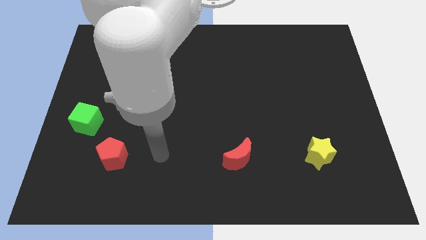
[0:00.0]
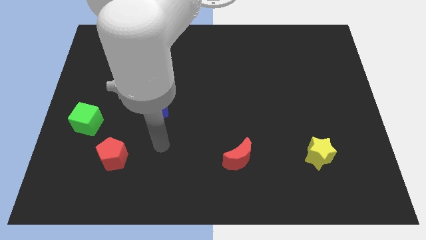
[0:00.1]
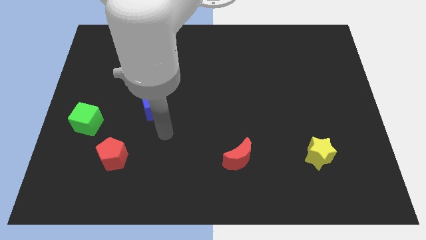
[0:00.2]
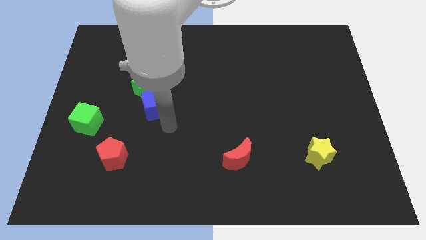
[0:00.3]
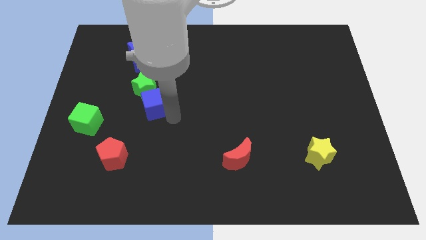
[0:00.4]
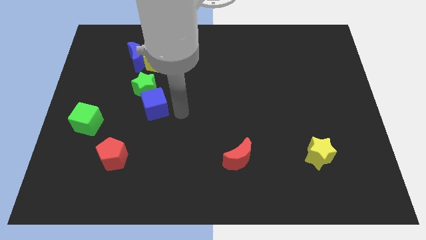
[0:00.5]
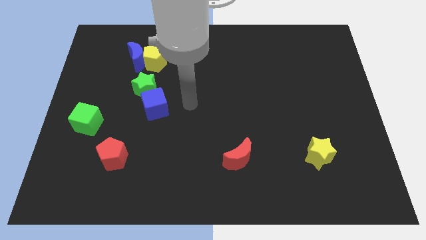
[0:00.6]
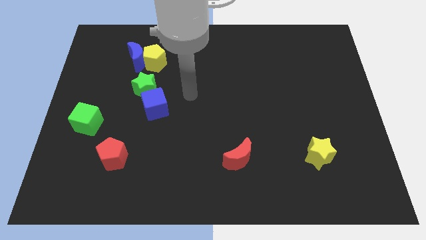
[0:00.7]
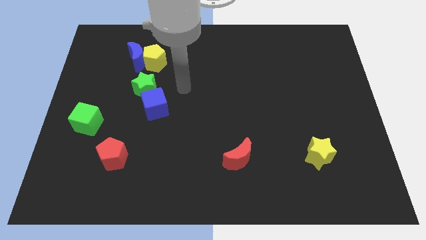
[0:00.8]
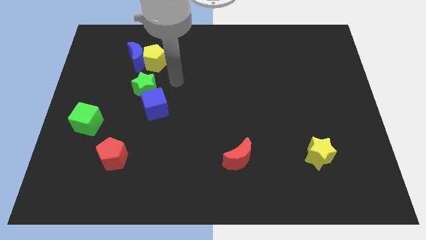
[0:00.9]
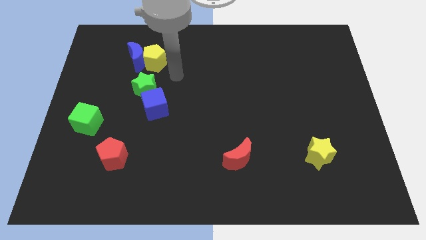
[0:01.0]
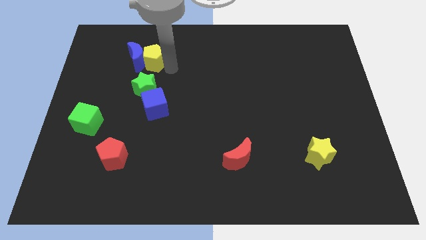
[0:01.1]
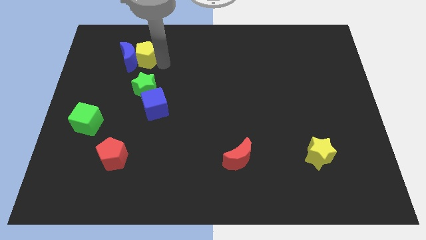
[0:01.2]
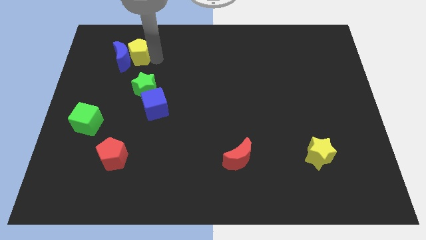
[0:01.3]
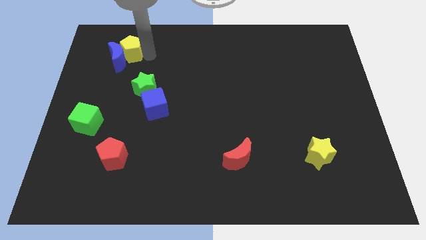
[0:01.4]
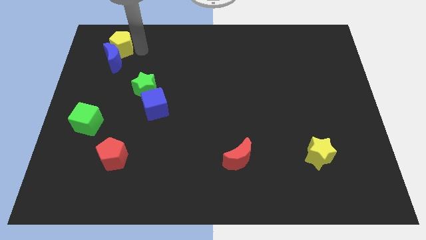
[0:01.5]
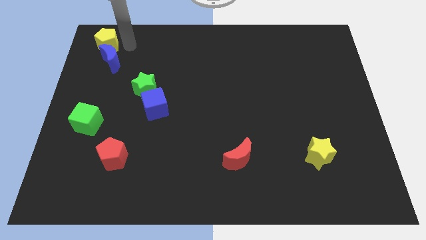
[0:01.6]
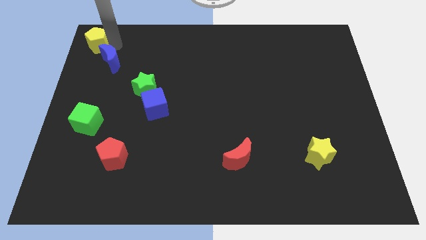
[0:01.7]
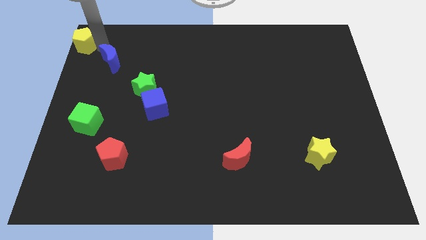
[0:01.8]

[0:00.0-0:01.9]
separate the blue moon from the yellow pentagon

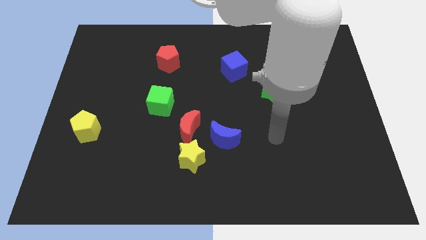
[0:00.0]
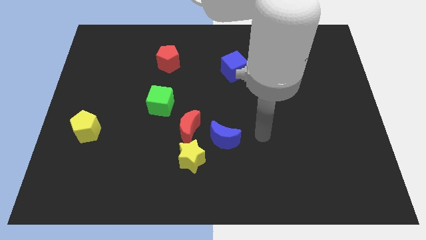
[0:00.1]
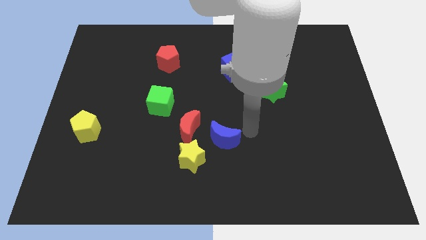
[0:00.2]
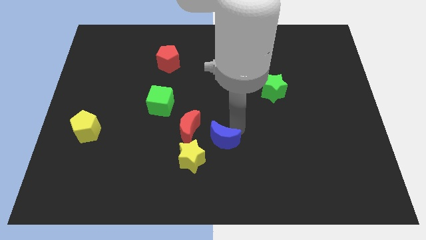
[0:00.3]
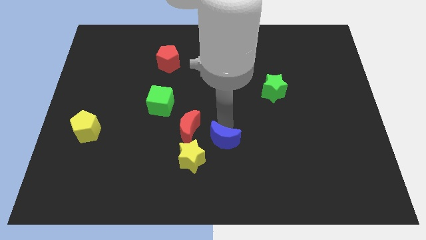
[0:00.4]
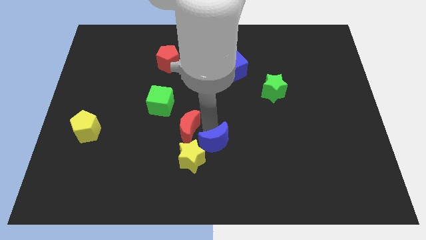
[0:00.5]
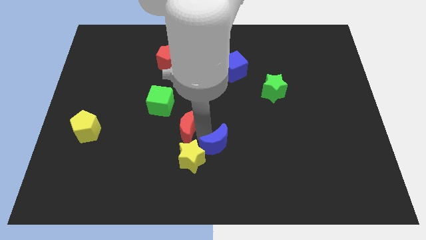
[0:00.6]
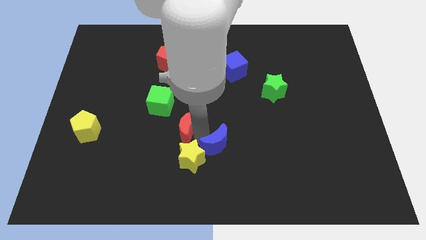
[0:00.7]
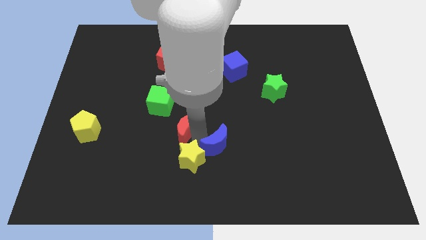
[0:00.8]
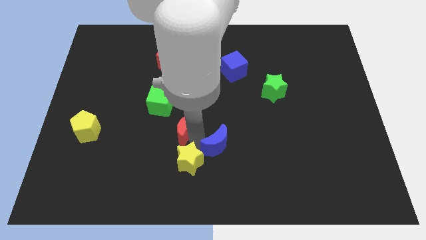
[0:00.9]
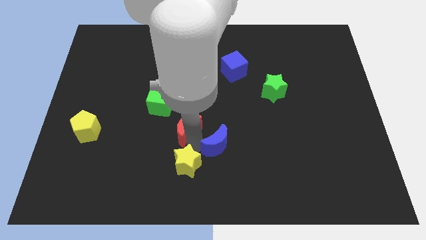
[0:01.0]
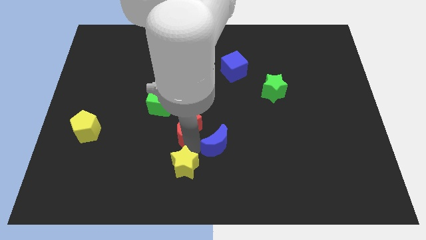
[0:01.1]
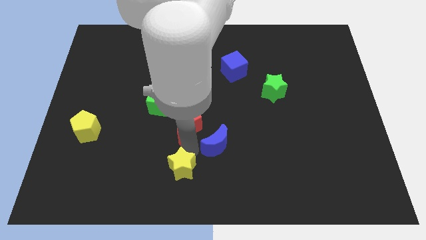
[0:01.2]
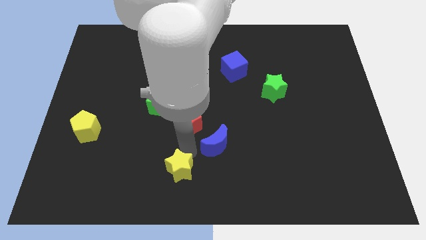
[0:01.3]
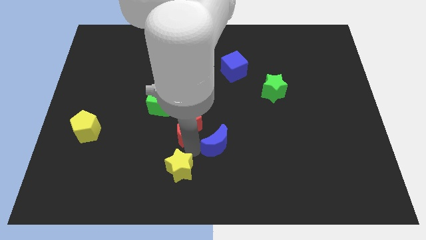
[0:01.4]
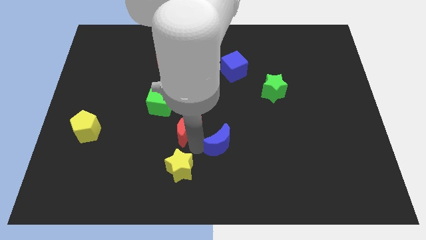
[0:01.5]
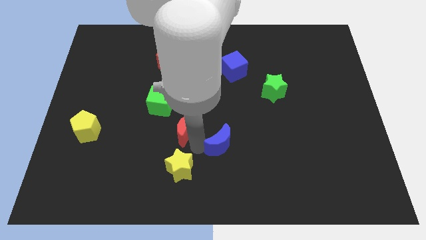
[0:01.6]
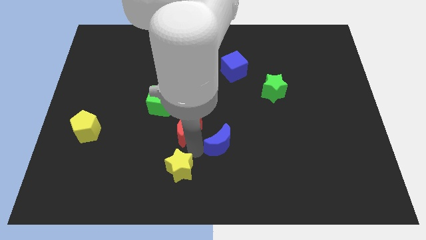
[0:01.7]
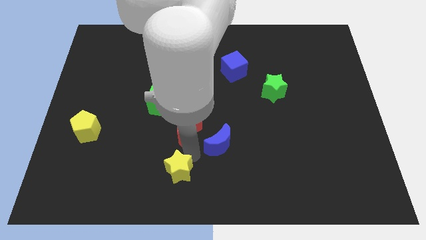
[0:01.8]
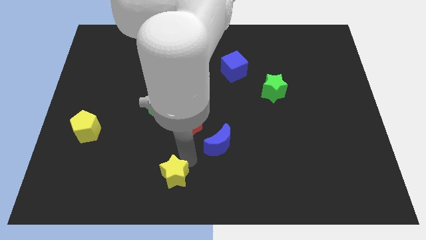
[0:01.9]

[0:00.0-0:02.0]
move the yellow star away from the red moon and blue moon

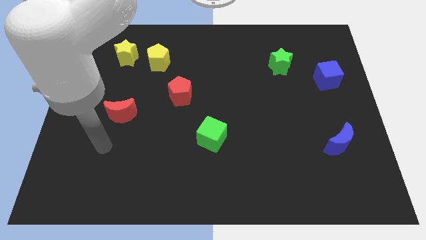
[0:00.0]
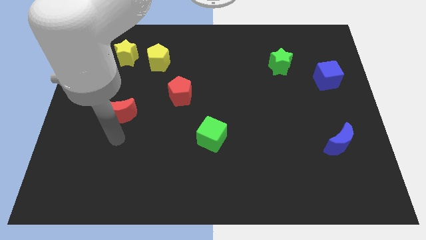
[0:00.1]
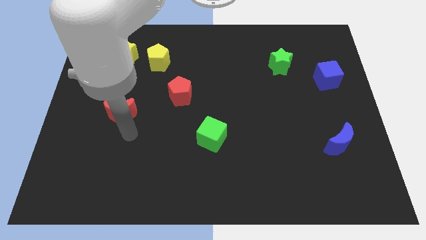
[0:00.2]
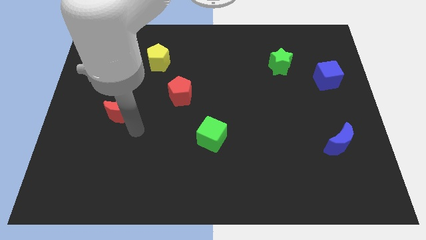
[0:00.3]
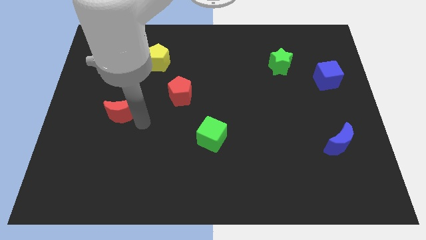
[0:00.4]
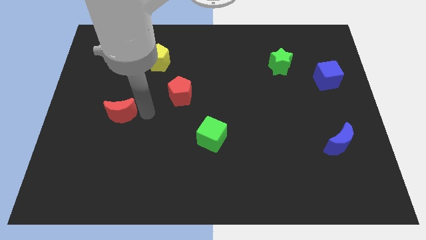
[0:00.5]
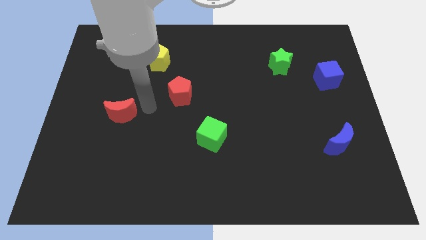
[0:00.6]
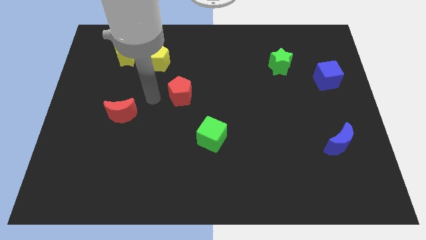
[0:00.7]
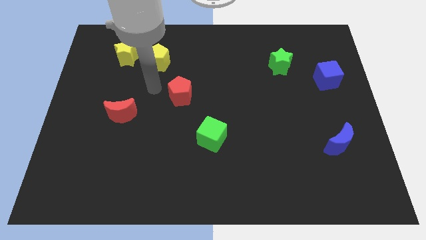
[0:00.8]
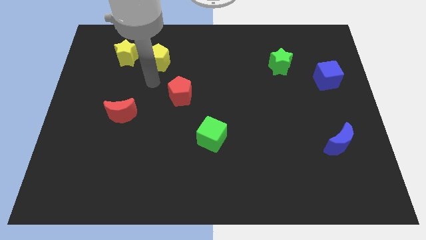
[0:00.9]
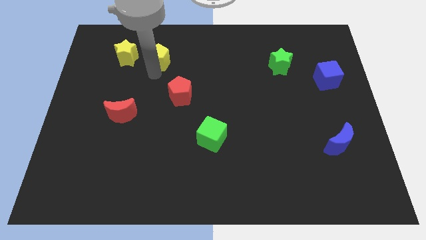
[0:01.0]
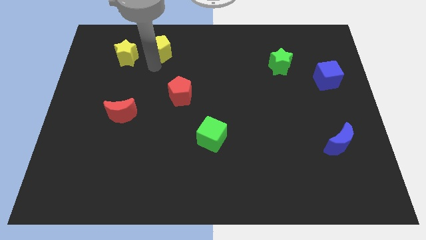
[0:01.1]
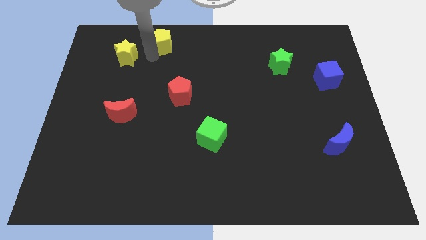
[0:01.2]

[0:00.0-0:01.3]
pull the yellow star apart from the yellow pentagon

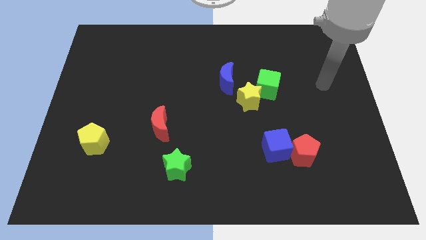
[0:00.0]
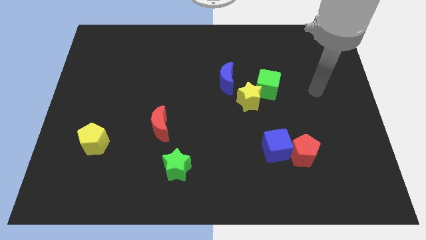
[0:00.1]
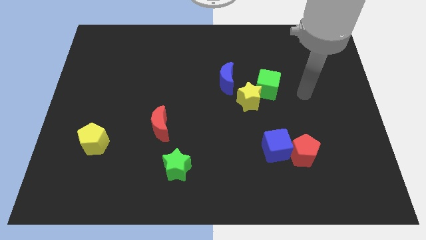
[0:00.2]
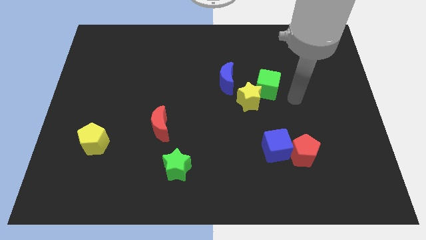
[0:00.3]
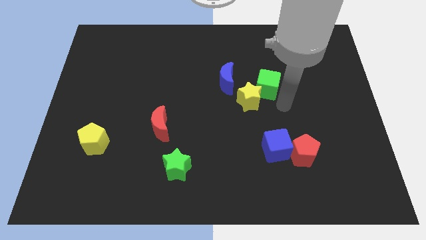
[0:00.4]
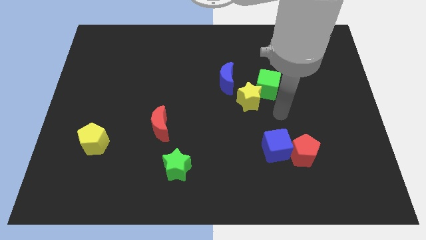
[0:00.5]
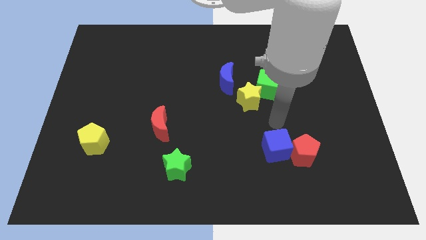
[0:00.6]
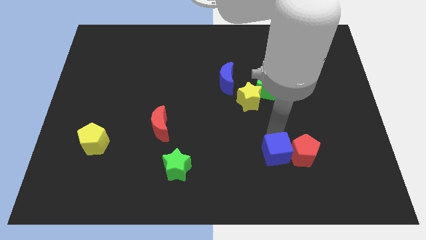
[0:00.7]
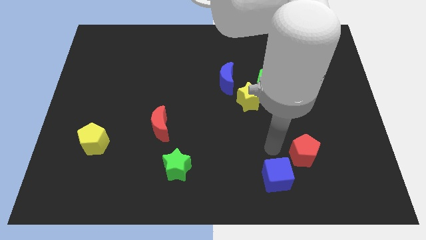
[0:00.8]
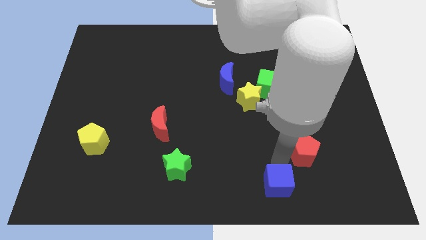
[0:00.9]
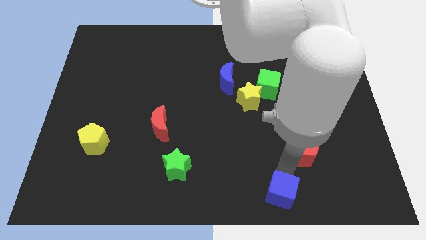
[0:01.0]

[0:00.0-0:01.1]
separate the red pentagon from the blue cube

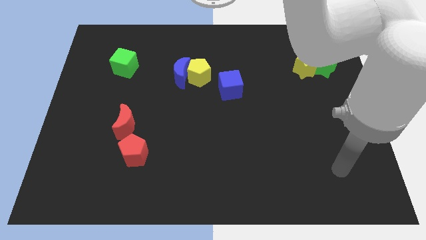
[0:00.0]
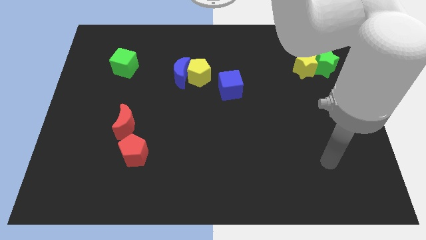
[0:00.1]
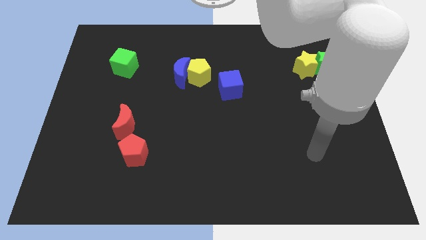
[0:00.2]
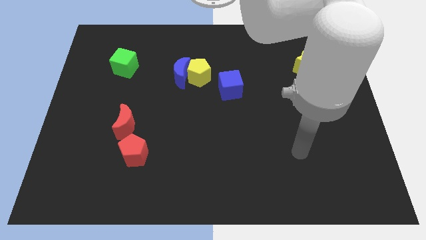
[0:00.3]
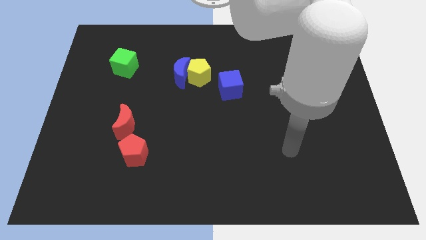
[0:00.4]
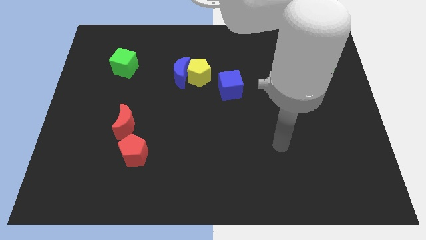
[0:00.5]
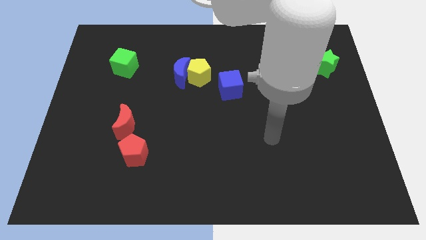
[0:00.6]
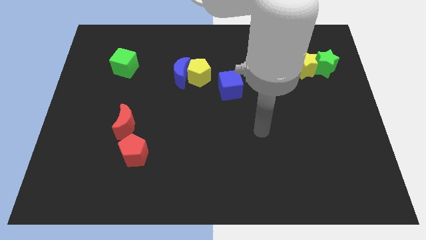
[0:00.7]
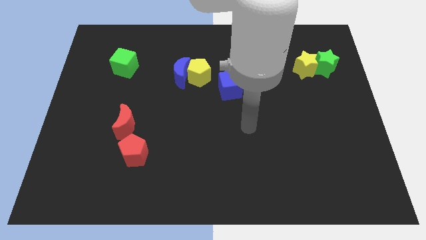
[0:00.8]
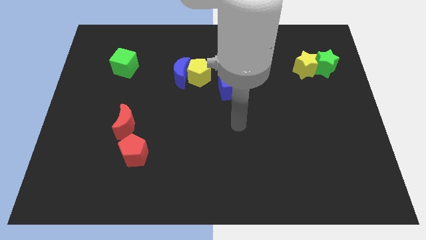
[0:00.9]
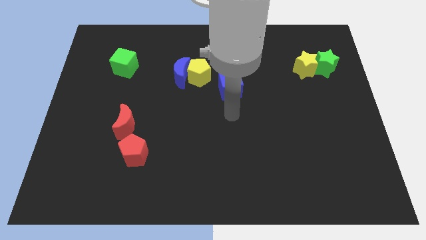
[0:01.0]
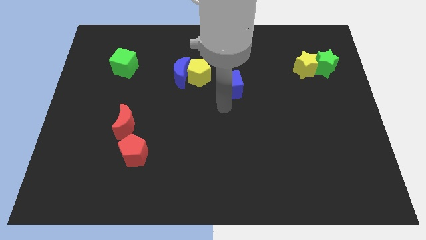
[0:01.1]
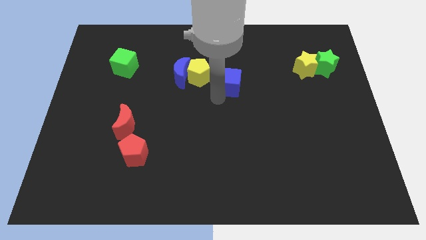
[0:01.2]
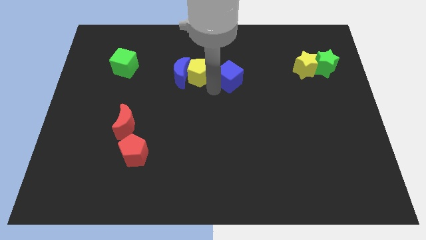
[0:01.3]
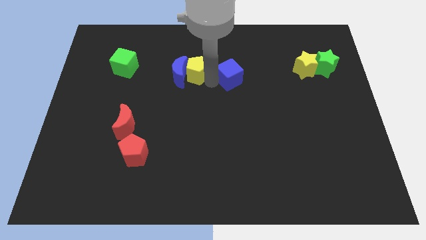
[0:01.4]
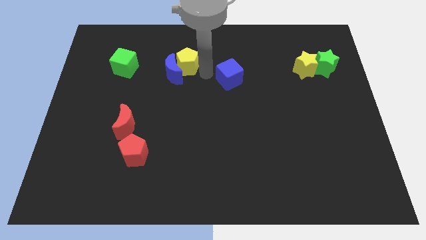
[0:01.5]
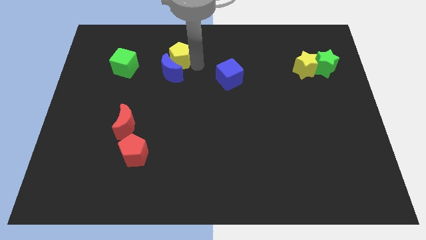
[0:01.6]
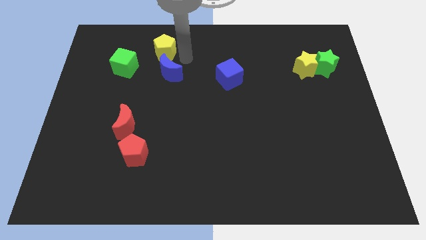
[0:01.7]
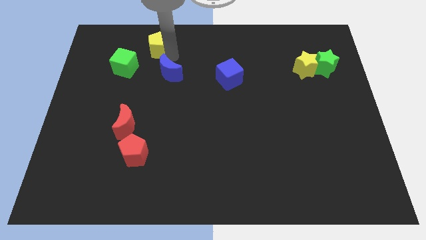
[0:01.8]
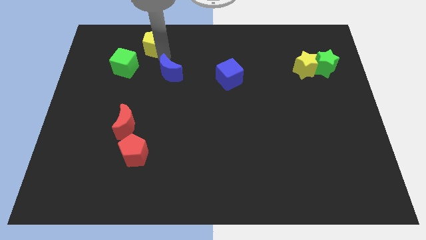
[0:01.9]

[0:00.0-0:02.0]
pull the blue moon apart from the yellow pentagon

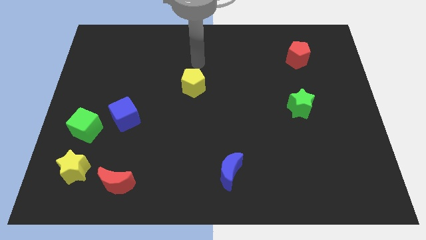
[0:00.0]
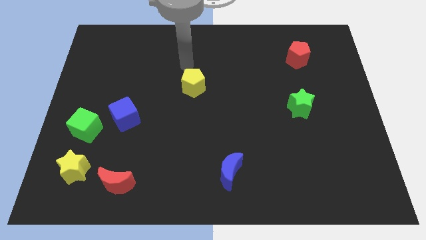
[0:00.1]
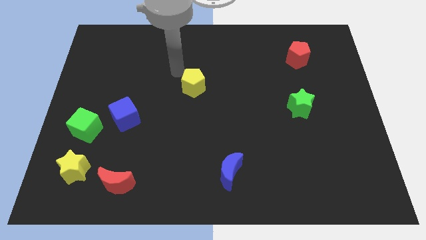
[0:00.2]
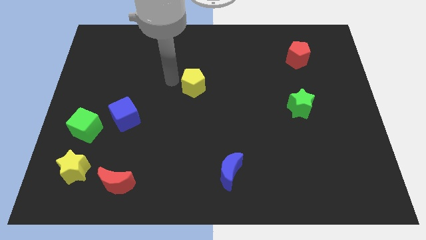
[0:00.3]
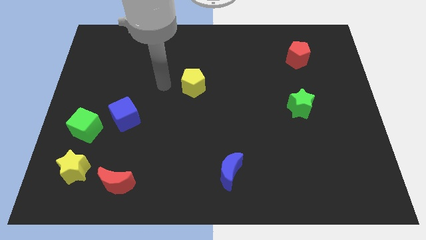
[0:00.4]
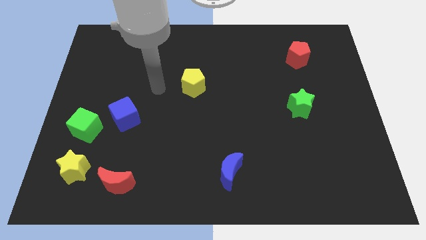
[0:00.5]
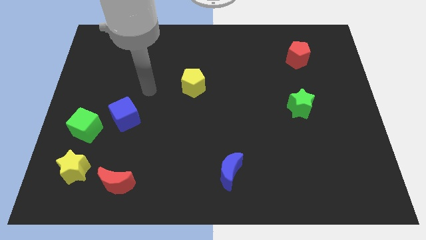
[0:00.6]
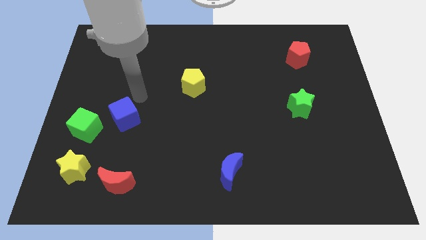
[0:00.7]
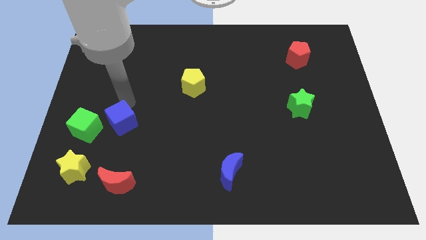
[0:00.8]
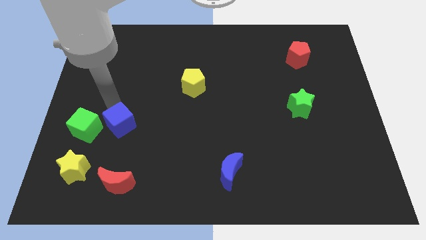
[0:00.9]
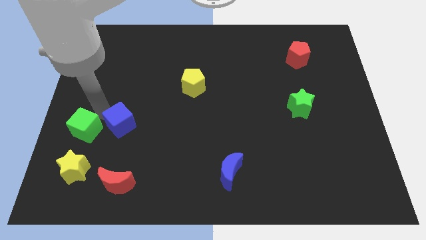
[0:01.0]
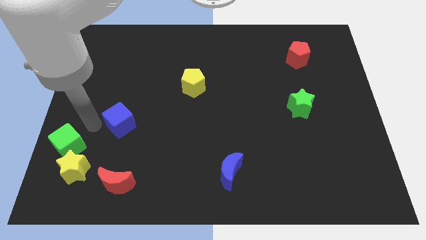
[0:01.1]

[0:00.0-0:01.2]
pull the blue cube apart from the green cube
